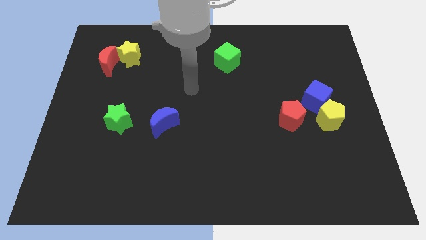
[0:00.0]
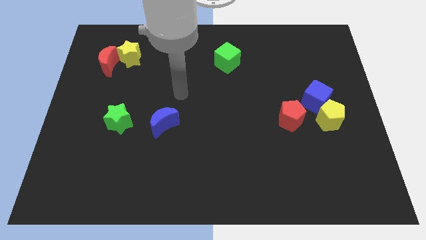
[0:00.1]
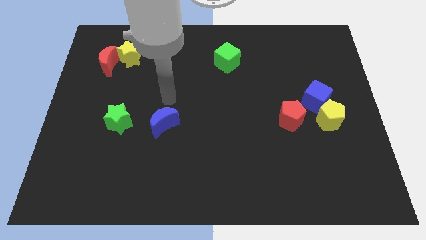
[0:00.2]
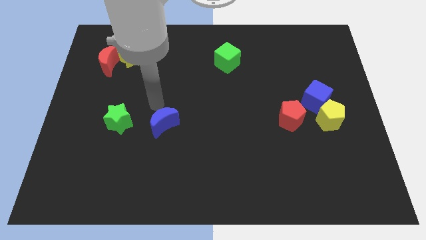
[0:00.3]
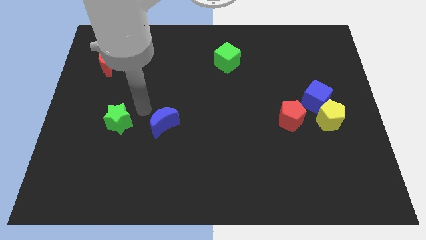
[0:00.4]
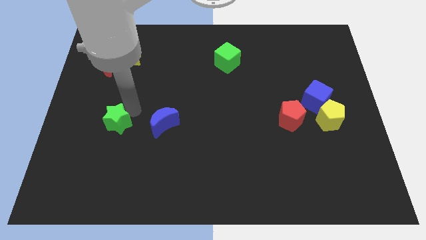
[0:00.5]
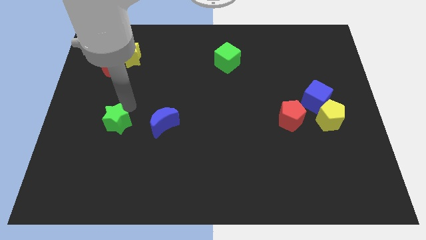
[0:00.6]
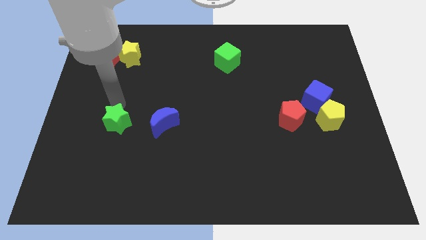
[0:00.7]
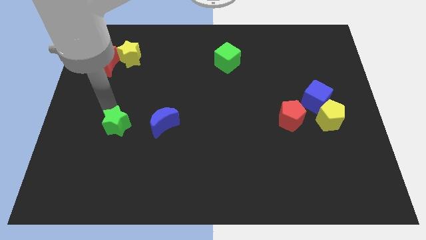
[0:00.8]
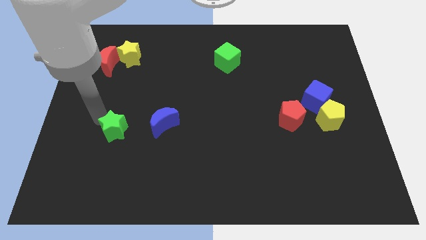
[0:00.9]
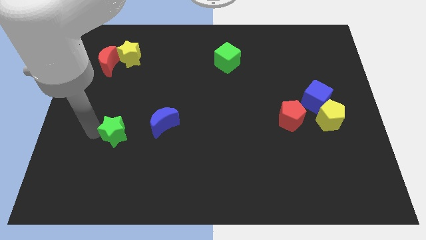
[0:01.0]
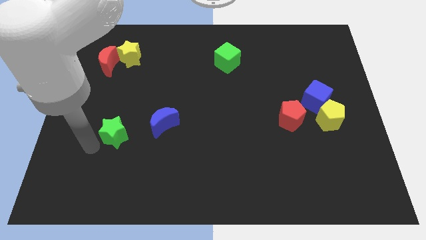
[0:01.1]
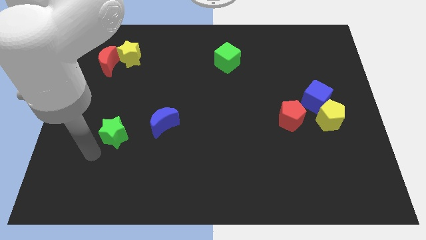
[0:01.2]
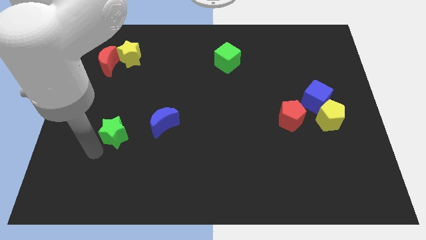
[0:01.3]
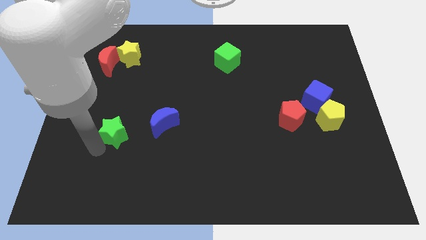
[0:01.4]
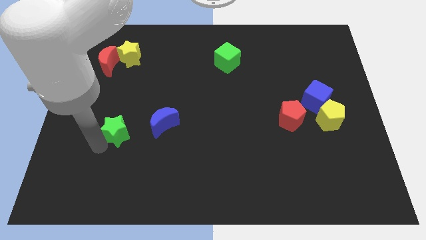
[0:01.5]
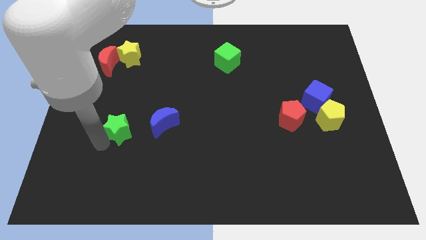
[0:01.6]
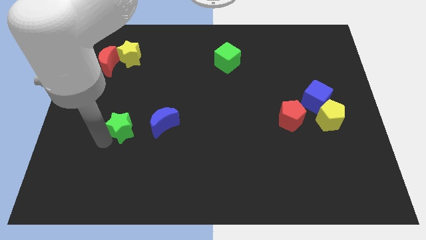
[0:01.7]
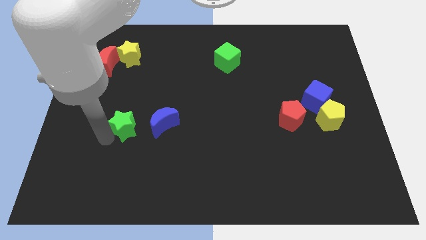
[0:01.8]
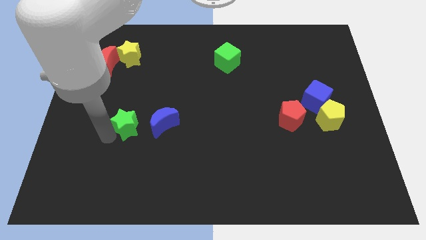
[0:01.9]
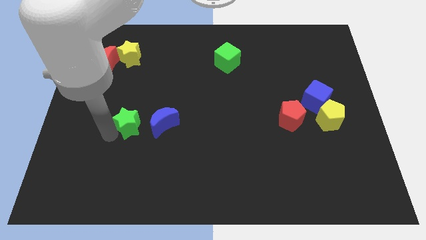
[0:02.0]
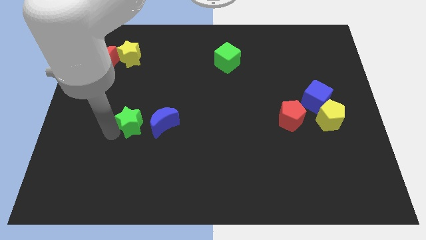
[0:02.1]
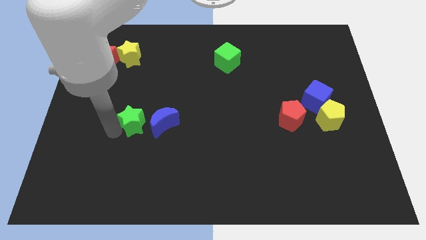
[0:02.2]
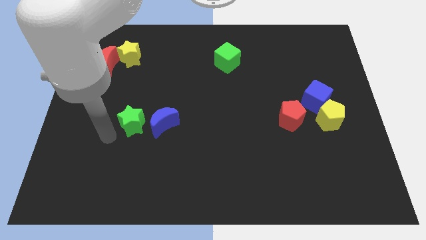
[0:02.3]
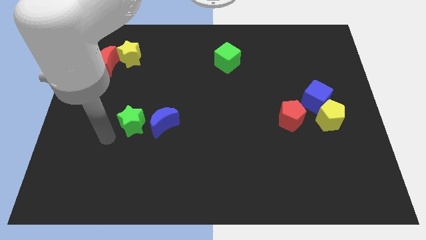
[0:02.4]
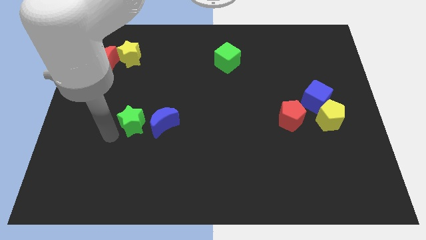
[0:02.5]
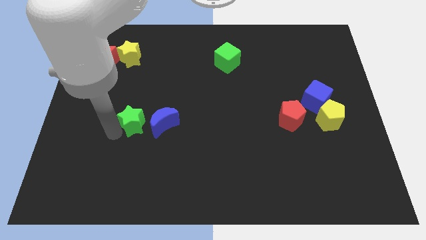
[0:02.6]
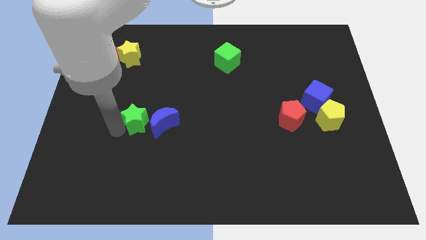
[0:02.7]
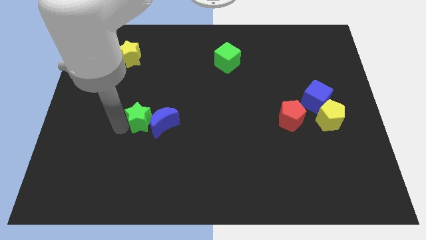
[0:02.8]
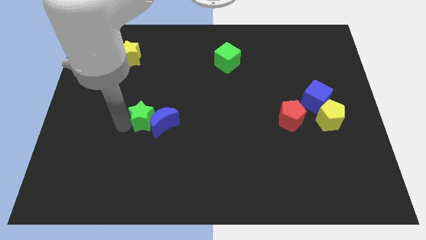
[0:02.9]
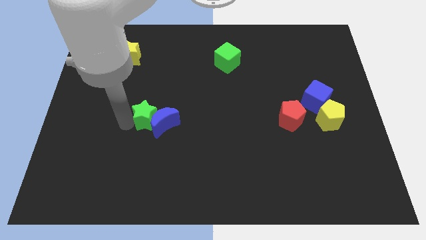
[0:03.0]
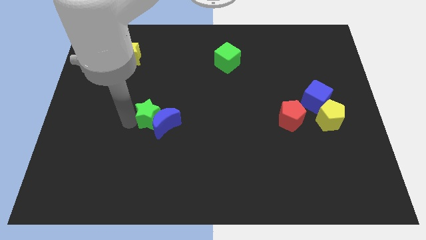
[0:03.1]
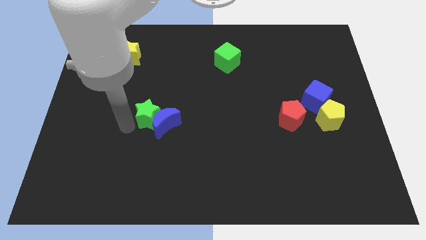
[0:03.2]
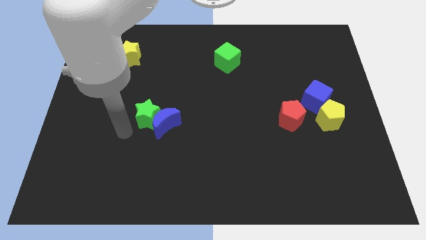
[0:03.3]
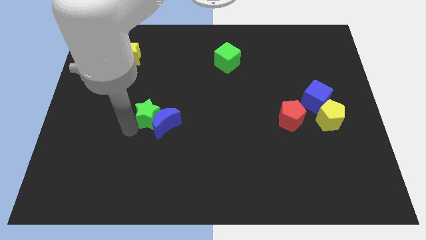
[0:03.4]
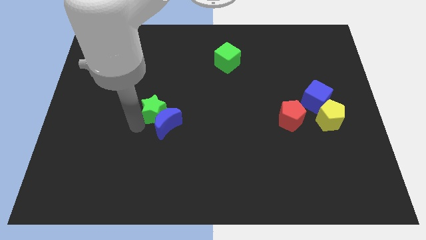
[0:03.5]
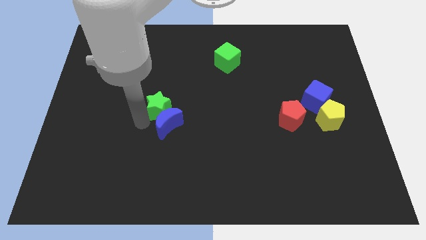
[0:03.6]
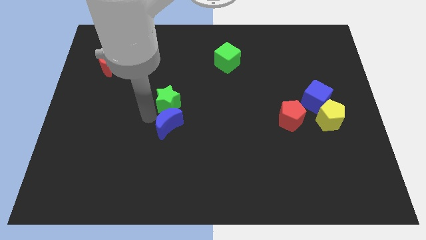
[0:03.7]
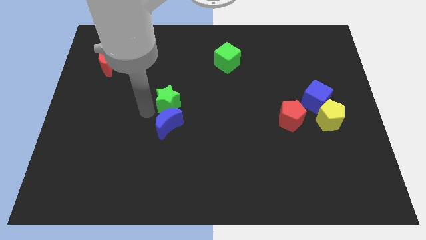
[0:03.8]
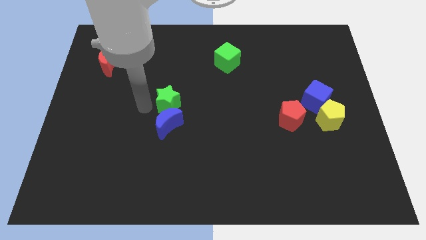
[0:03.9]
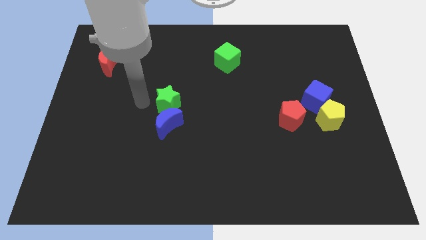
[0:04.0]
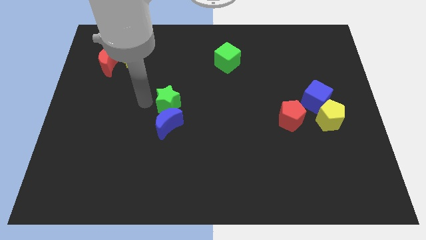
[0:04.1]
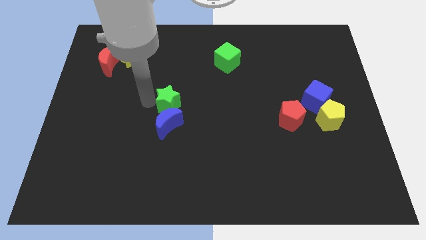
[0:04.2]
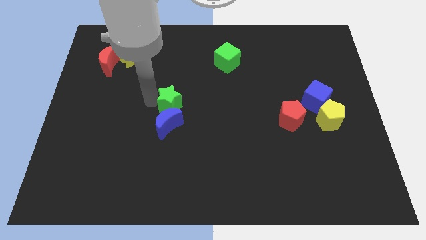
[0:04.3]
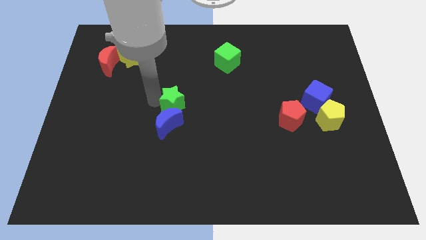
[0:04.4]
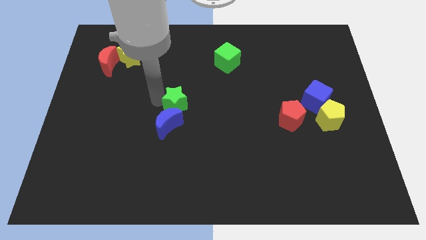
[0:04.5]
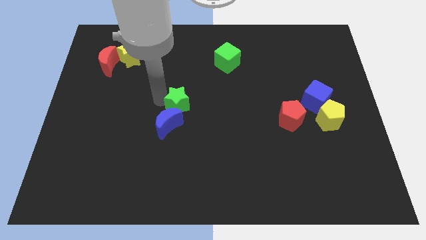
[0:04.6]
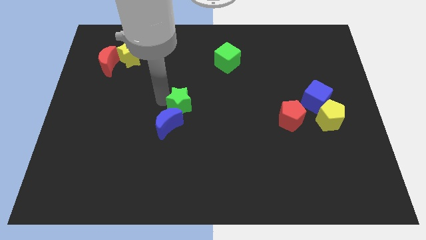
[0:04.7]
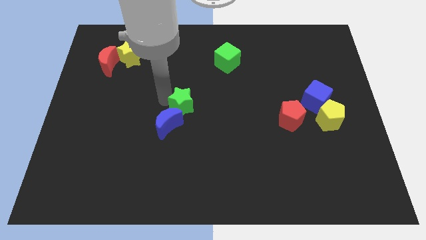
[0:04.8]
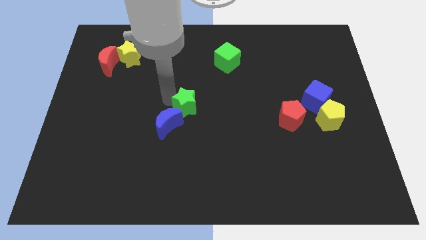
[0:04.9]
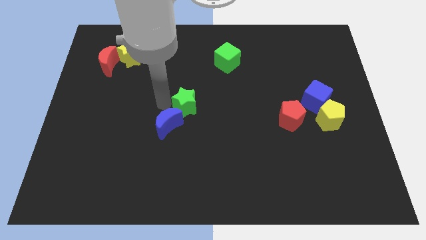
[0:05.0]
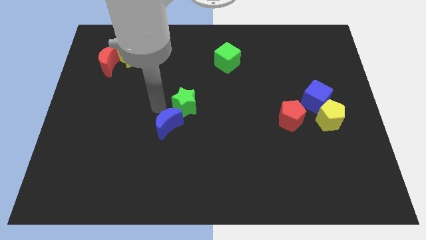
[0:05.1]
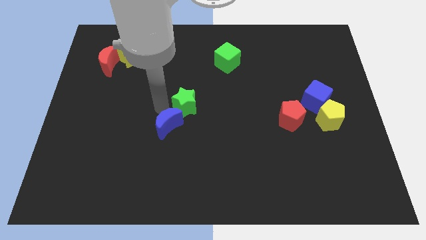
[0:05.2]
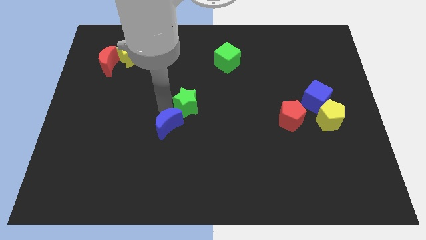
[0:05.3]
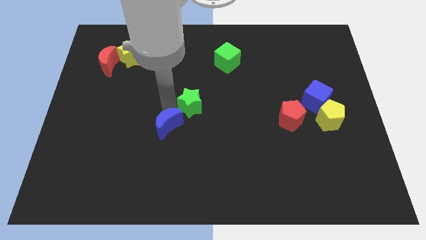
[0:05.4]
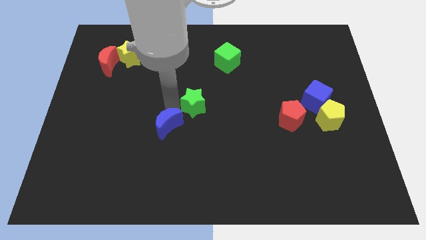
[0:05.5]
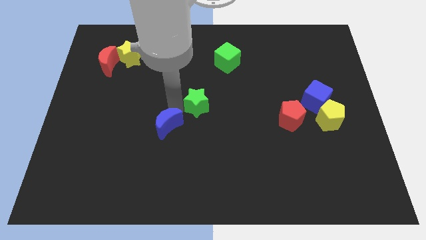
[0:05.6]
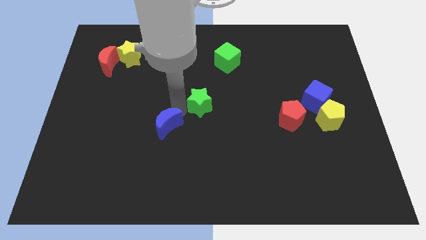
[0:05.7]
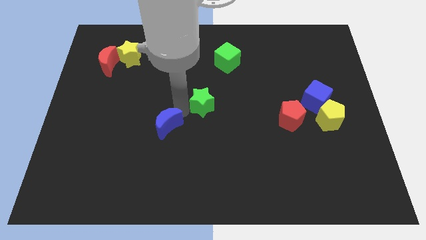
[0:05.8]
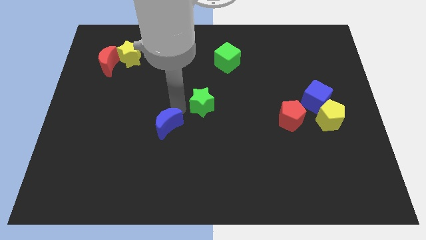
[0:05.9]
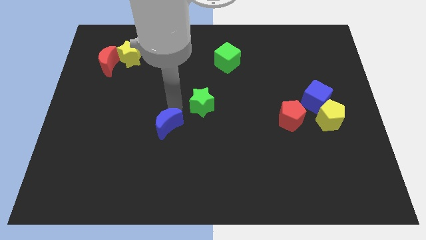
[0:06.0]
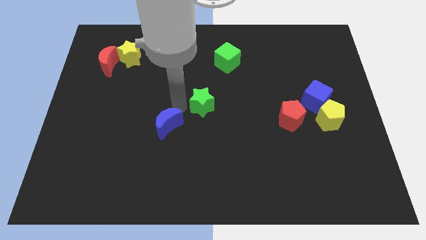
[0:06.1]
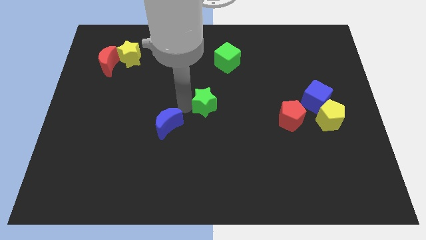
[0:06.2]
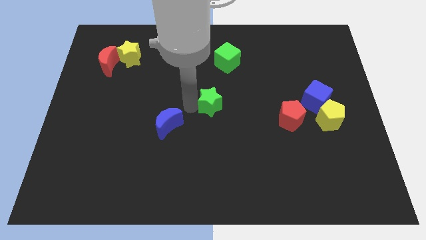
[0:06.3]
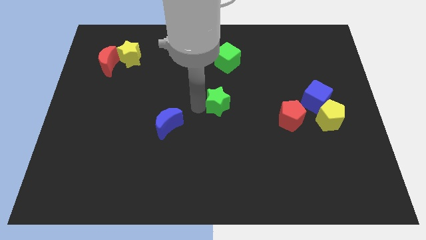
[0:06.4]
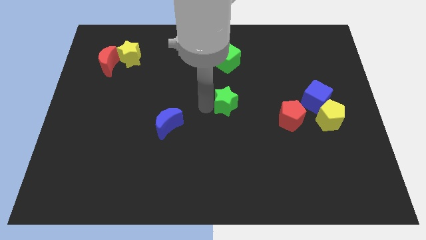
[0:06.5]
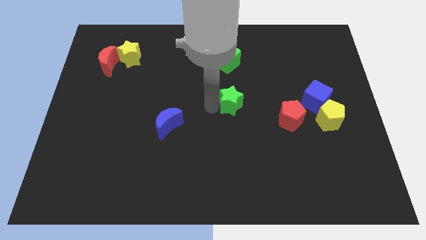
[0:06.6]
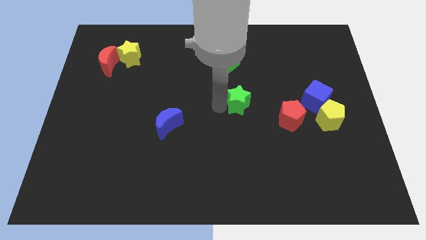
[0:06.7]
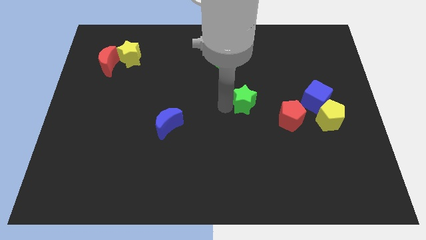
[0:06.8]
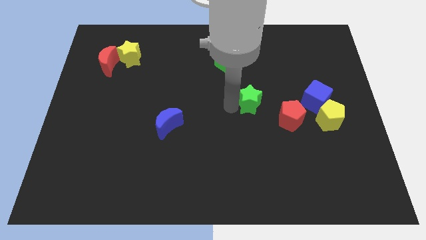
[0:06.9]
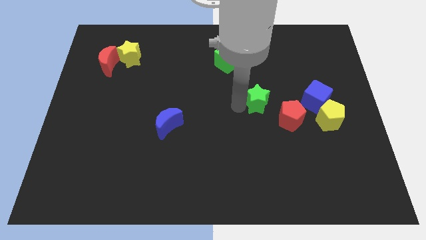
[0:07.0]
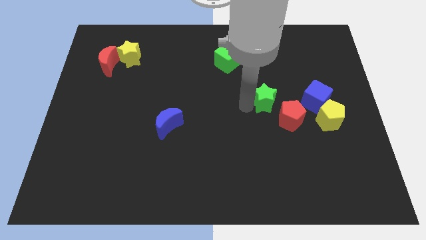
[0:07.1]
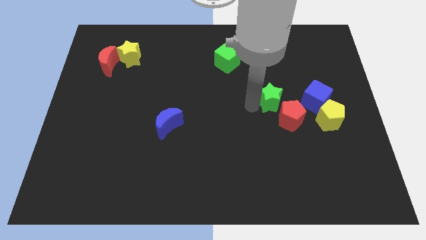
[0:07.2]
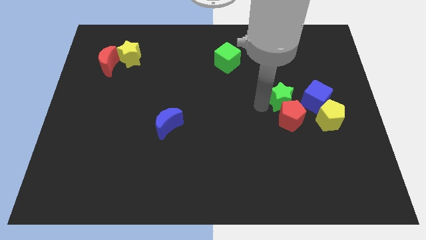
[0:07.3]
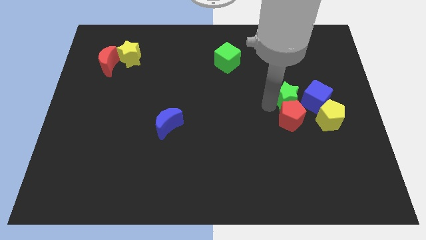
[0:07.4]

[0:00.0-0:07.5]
slide the green star to the top left side of the blue cube

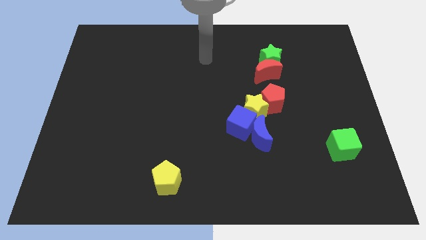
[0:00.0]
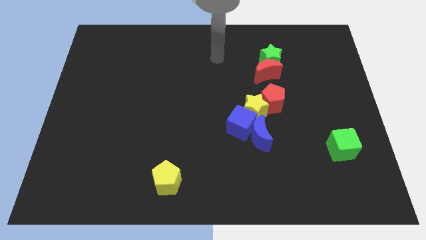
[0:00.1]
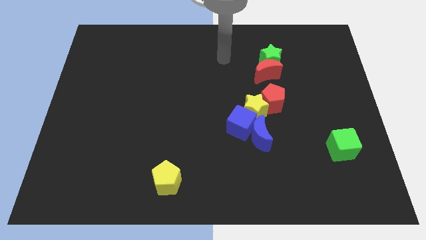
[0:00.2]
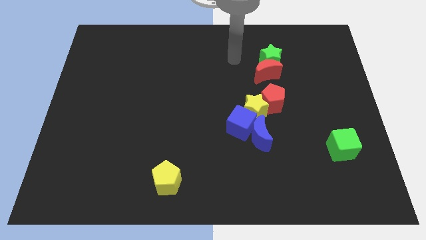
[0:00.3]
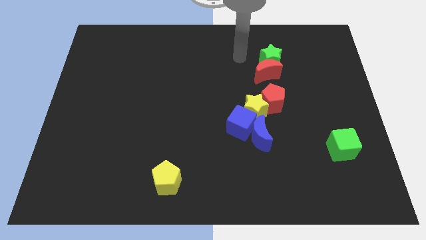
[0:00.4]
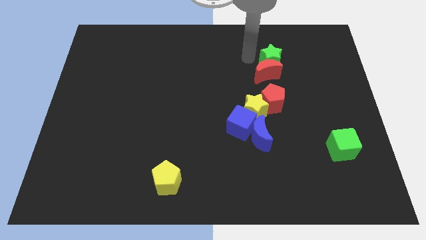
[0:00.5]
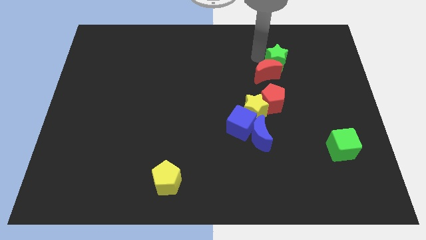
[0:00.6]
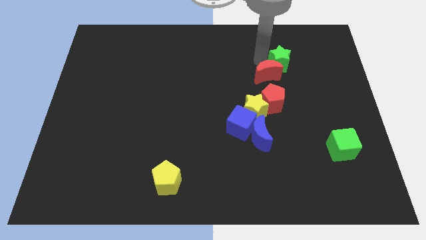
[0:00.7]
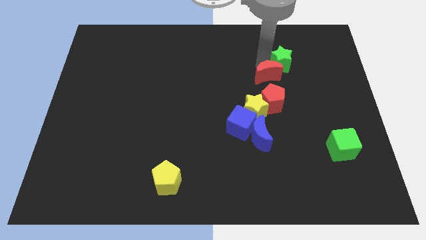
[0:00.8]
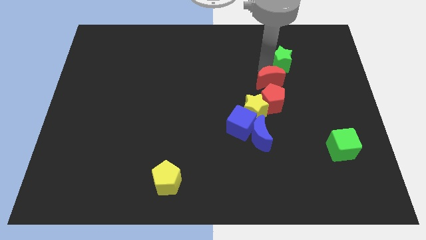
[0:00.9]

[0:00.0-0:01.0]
push the red moon diagonally up and to the right of the yellow star
